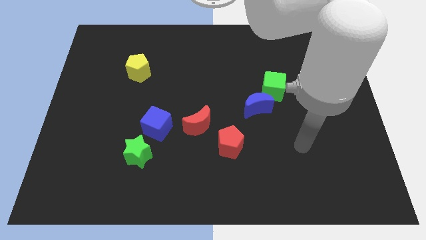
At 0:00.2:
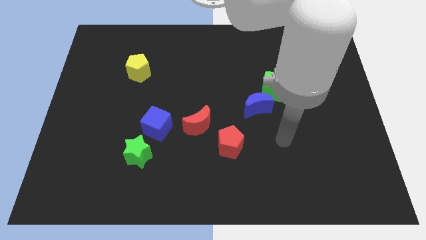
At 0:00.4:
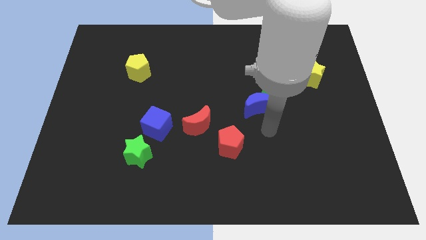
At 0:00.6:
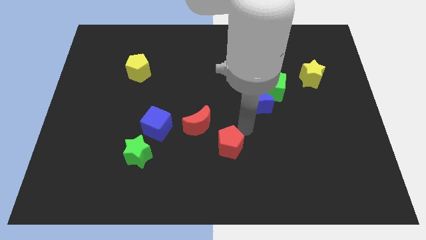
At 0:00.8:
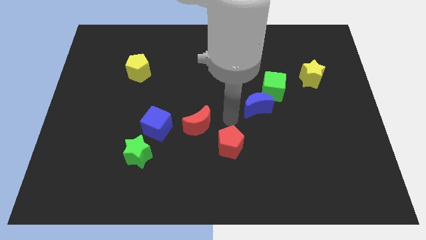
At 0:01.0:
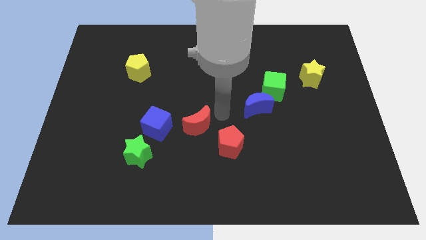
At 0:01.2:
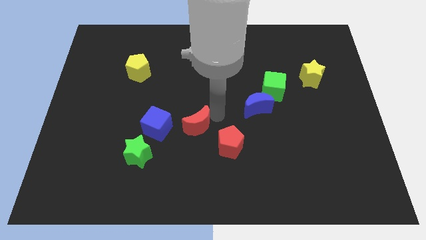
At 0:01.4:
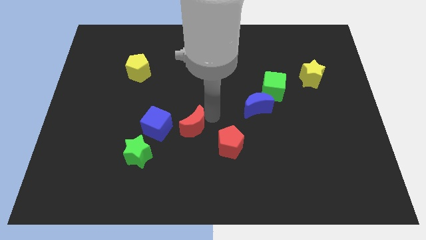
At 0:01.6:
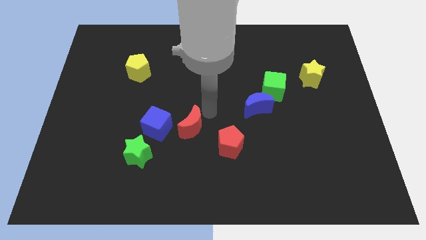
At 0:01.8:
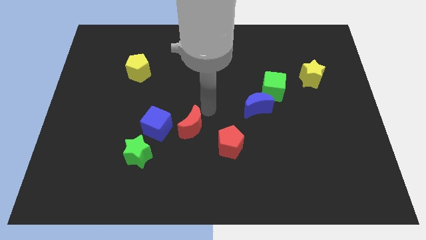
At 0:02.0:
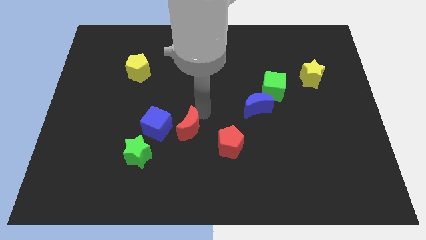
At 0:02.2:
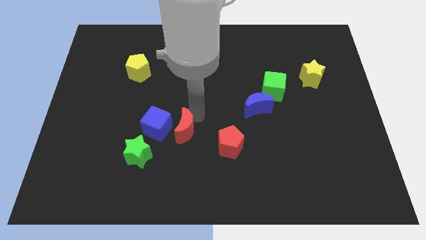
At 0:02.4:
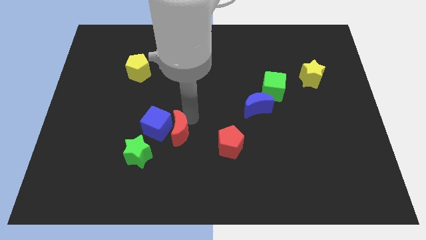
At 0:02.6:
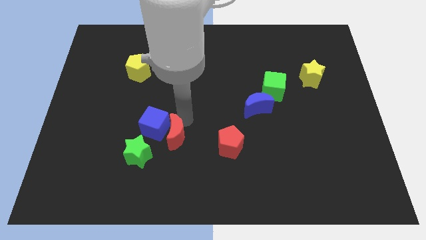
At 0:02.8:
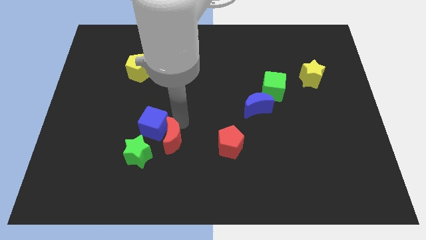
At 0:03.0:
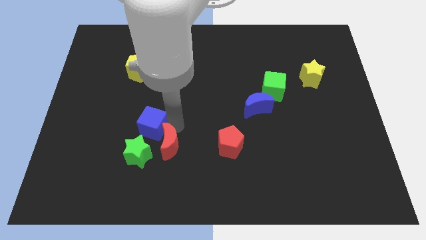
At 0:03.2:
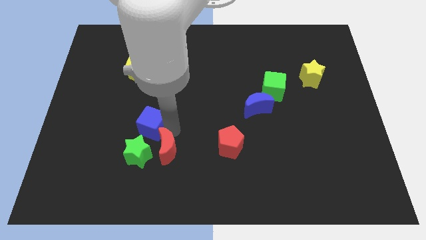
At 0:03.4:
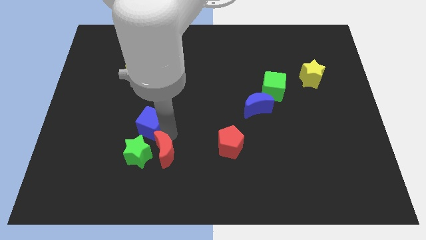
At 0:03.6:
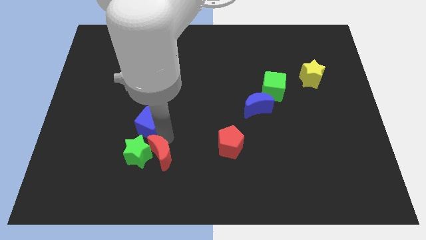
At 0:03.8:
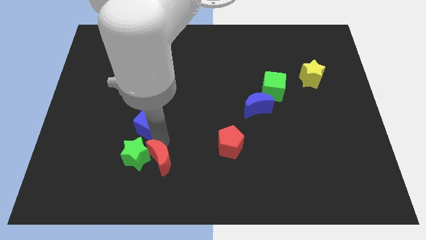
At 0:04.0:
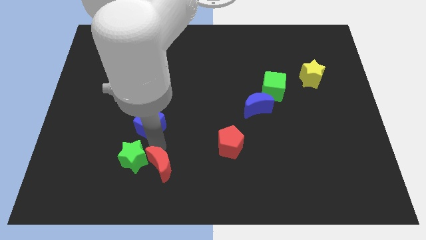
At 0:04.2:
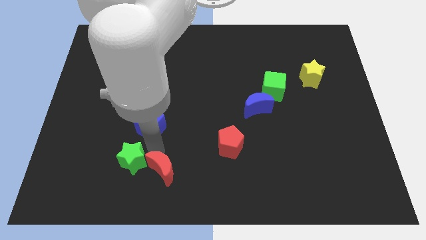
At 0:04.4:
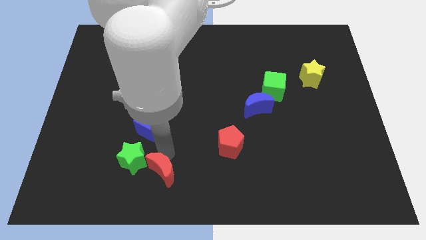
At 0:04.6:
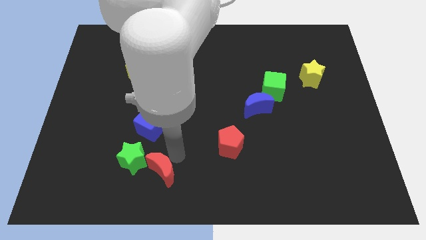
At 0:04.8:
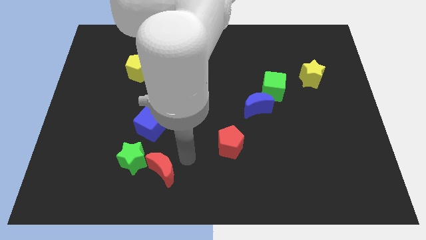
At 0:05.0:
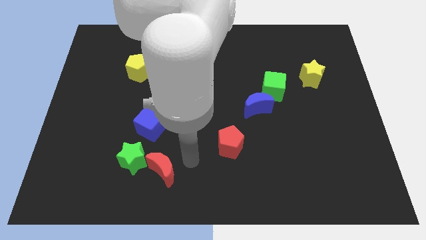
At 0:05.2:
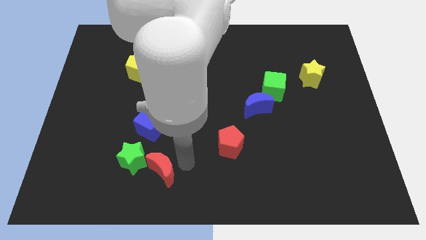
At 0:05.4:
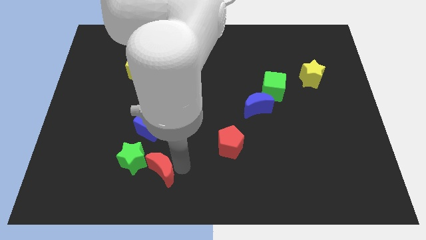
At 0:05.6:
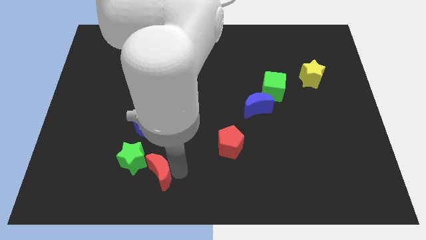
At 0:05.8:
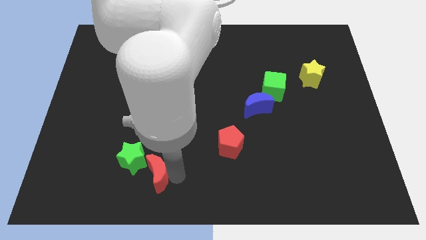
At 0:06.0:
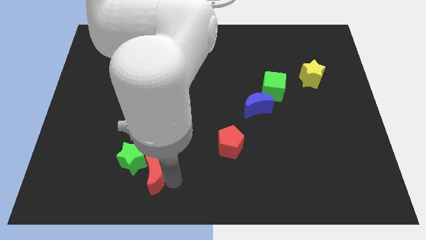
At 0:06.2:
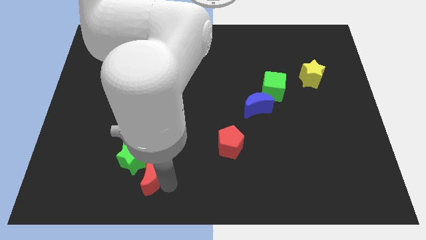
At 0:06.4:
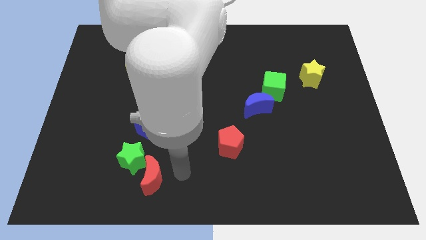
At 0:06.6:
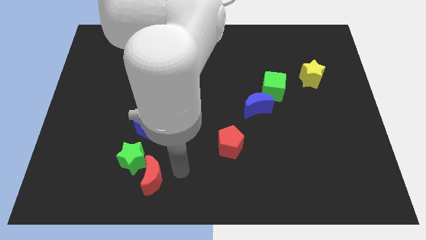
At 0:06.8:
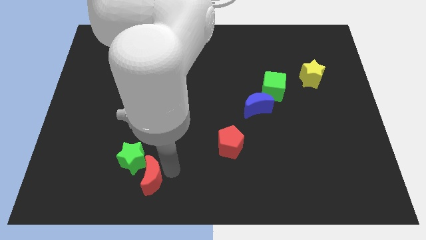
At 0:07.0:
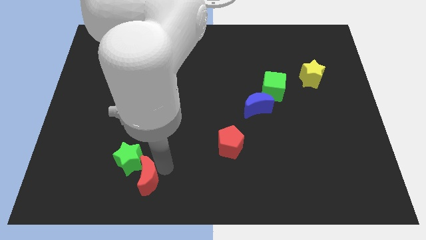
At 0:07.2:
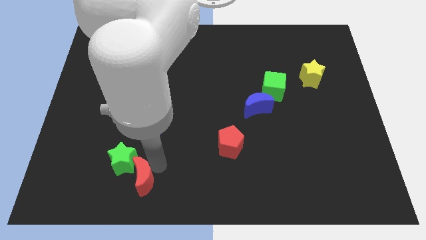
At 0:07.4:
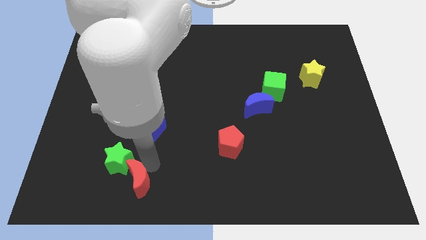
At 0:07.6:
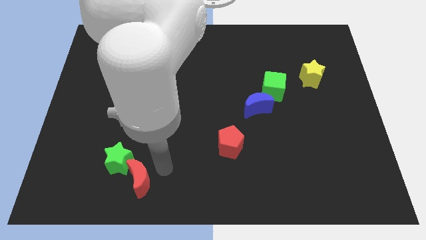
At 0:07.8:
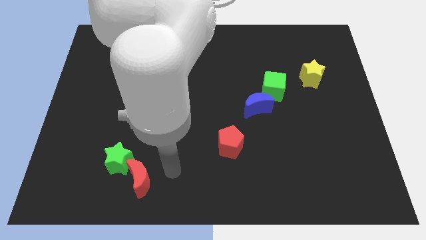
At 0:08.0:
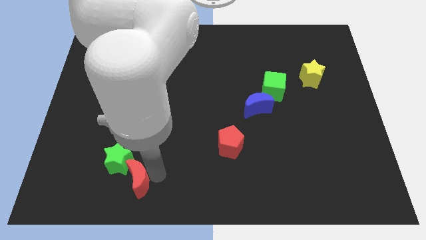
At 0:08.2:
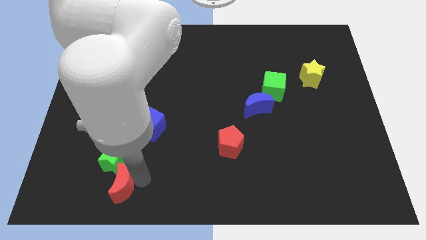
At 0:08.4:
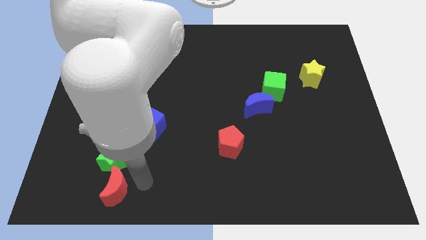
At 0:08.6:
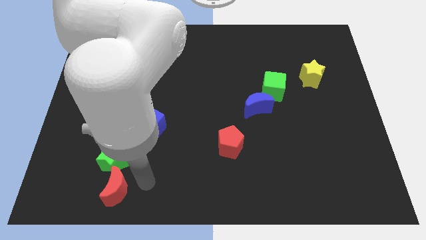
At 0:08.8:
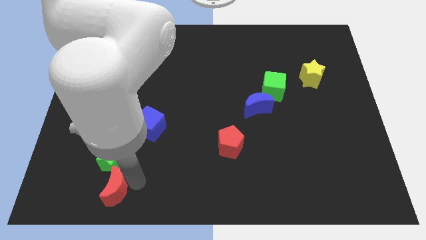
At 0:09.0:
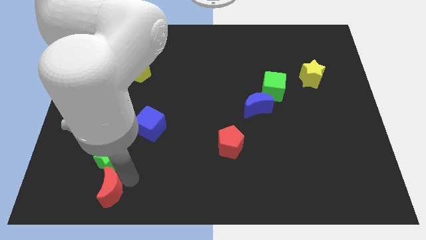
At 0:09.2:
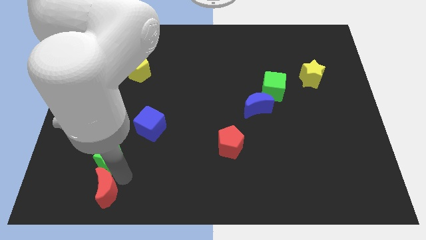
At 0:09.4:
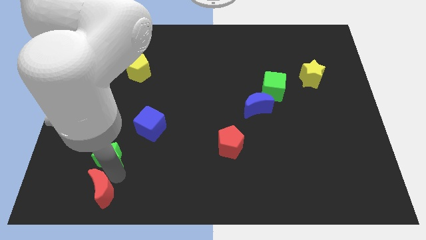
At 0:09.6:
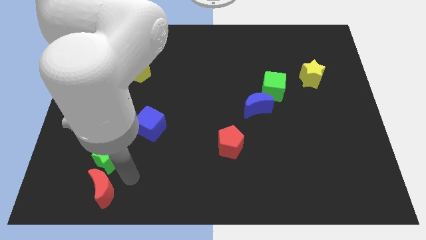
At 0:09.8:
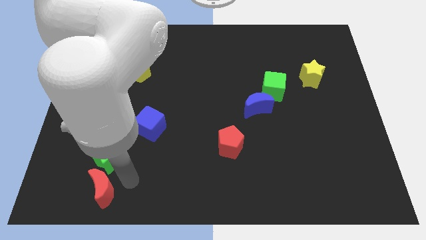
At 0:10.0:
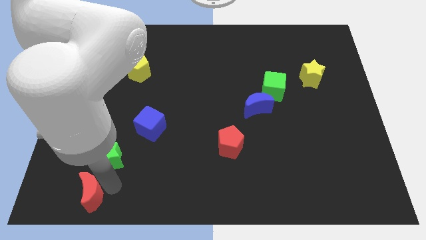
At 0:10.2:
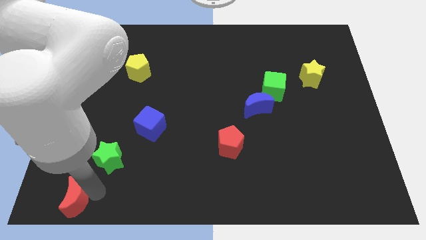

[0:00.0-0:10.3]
push the red moon to the bottom left of the board

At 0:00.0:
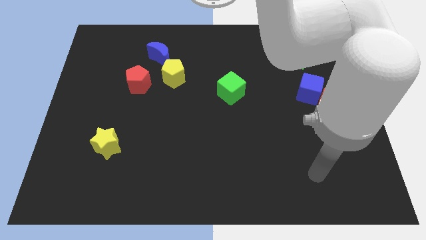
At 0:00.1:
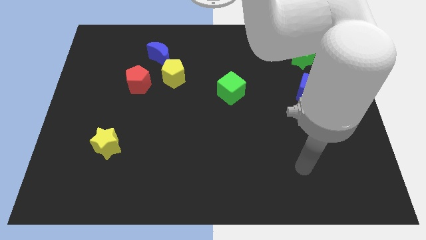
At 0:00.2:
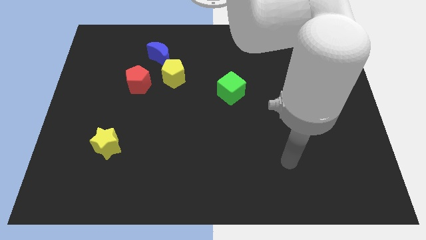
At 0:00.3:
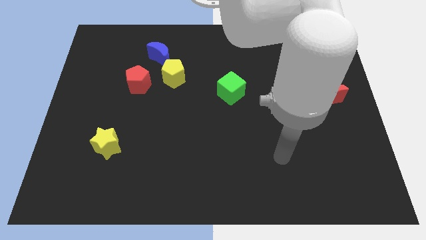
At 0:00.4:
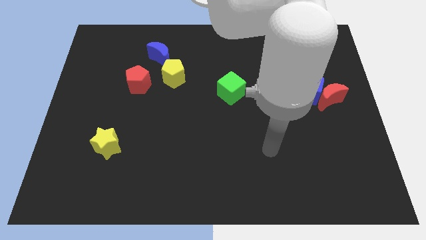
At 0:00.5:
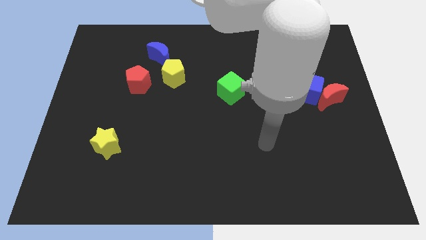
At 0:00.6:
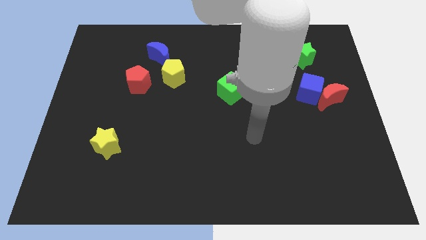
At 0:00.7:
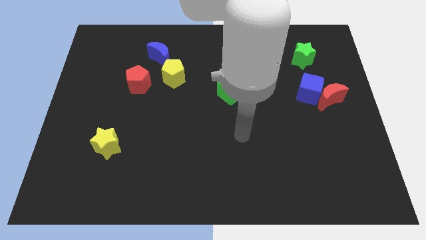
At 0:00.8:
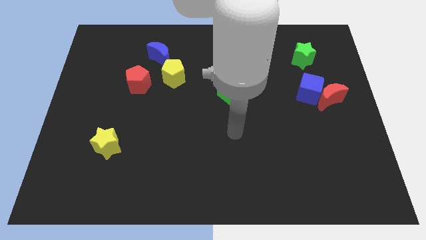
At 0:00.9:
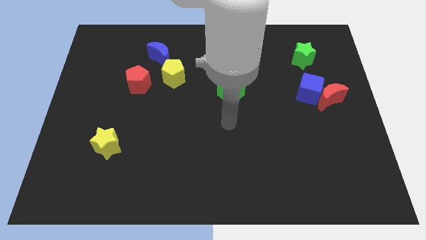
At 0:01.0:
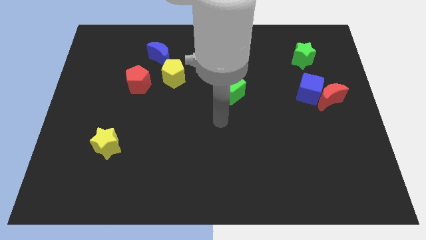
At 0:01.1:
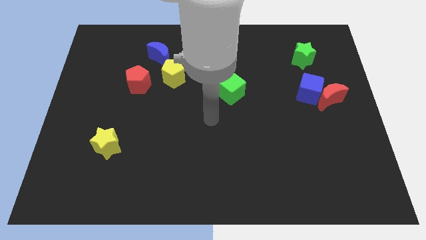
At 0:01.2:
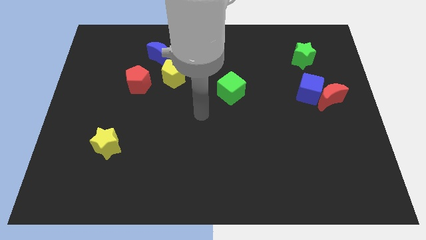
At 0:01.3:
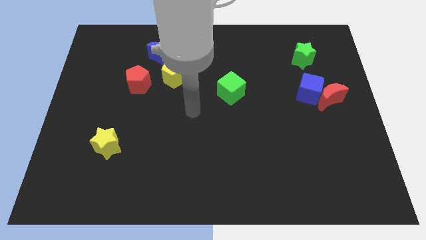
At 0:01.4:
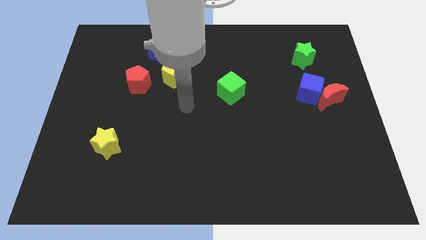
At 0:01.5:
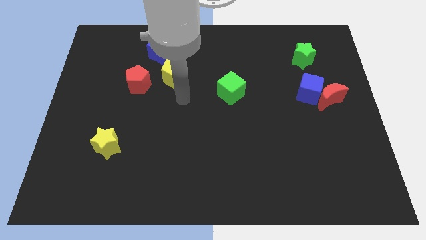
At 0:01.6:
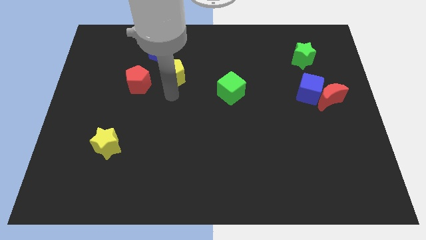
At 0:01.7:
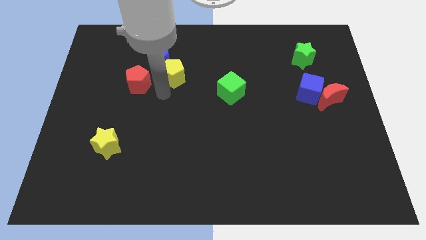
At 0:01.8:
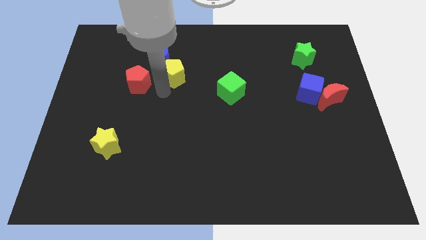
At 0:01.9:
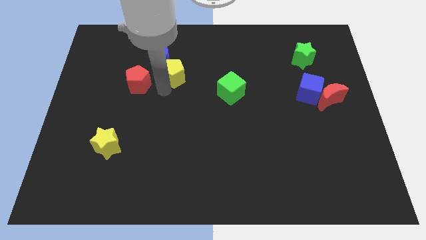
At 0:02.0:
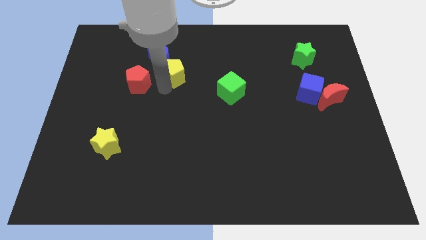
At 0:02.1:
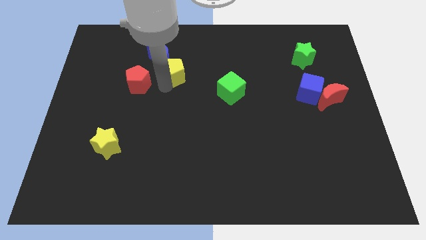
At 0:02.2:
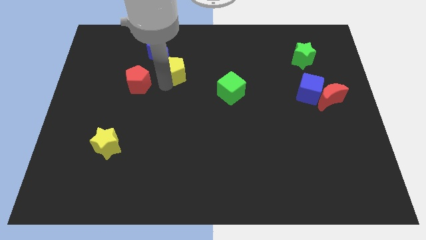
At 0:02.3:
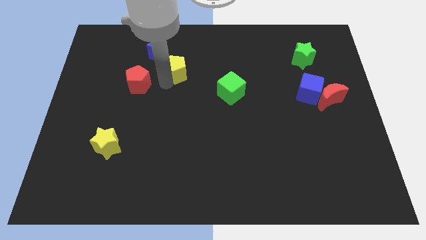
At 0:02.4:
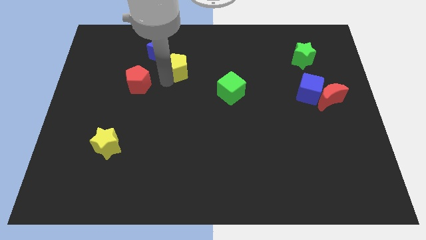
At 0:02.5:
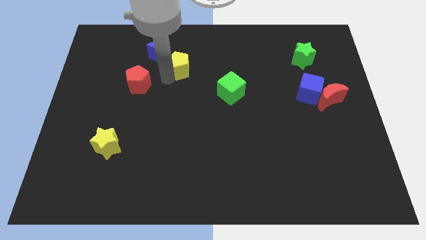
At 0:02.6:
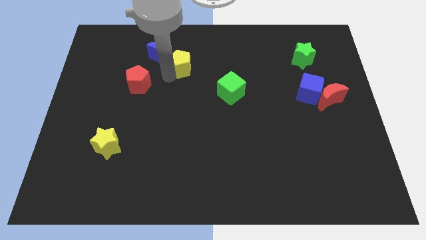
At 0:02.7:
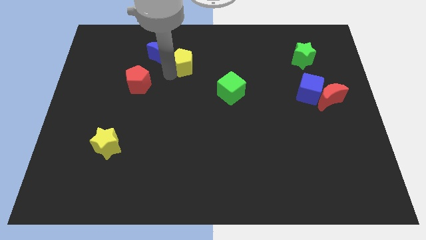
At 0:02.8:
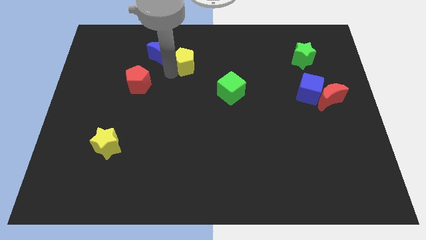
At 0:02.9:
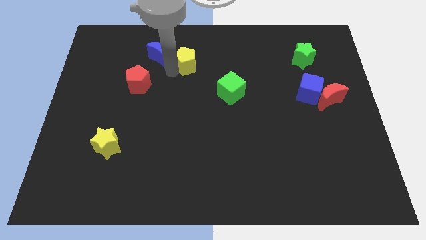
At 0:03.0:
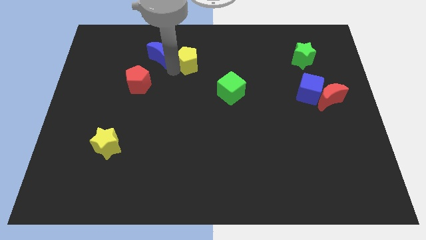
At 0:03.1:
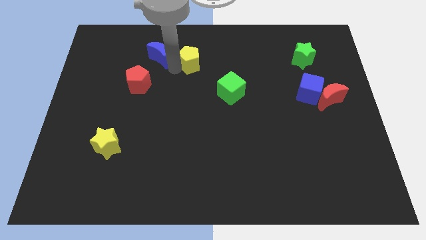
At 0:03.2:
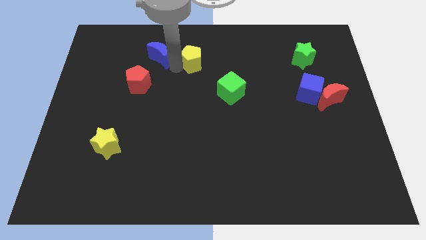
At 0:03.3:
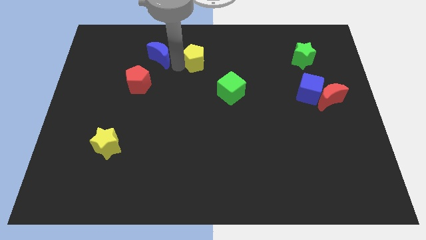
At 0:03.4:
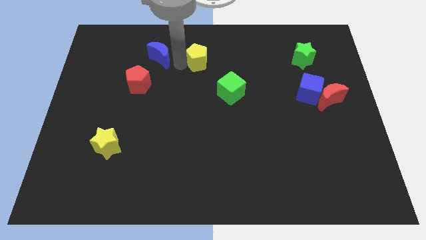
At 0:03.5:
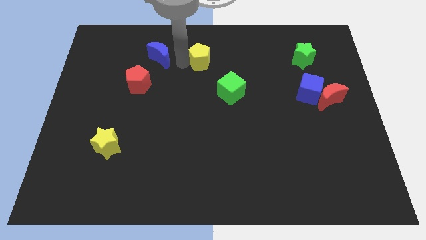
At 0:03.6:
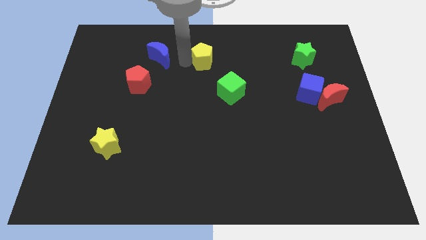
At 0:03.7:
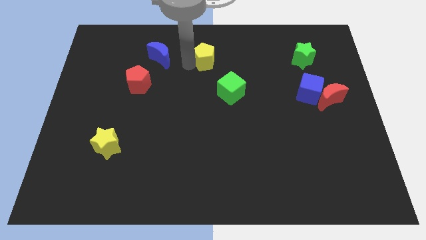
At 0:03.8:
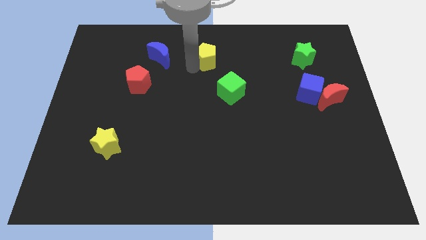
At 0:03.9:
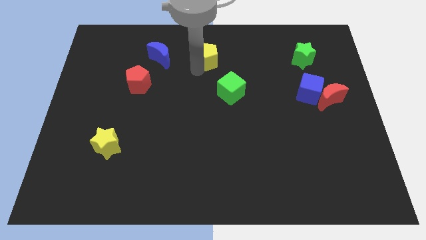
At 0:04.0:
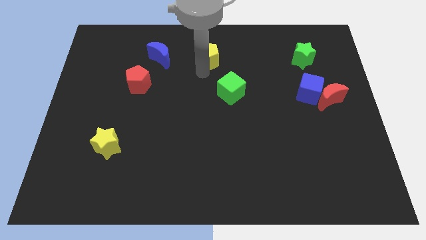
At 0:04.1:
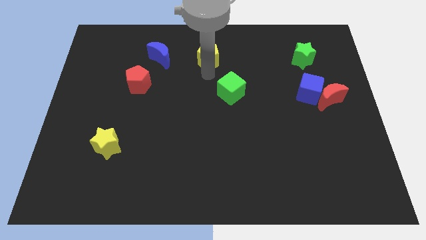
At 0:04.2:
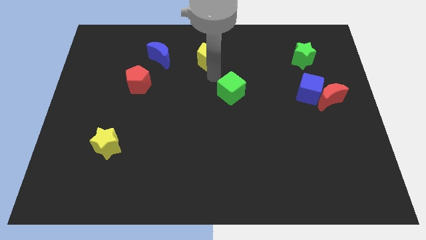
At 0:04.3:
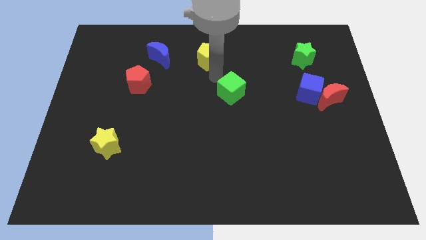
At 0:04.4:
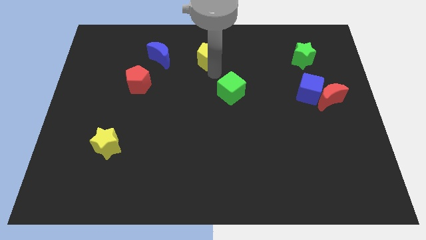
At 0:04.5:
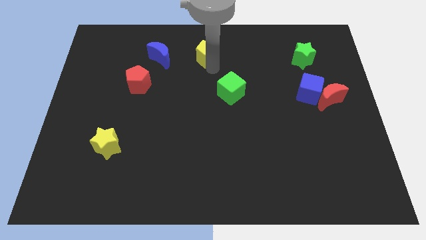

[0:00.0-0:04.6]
slide the yellow pentagon to the top
